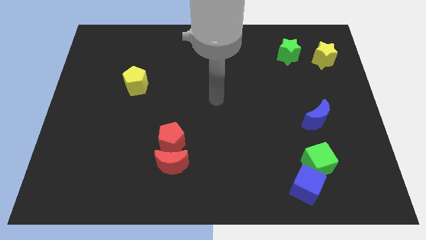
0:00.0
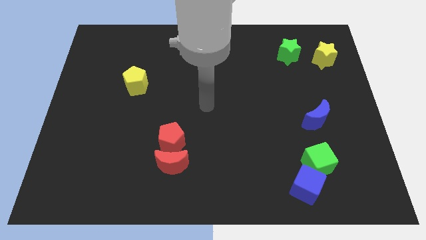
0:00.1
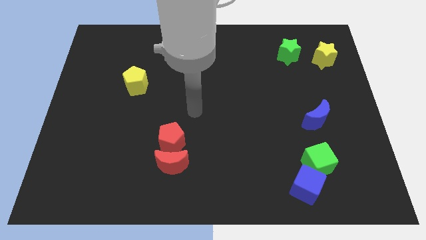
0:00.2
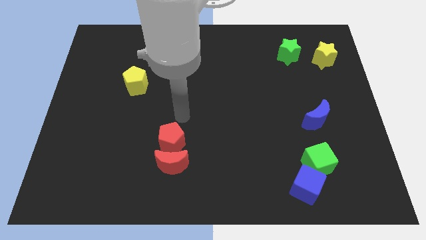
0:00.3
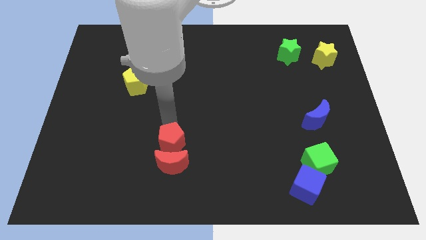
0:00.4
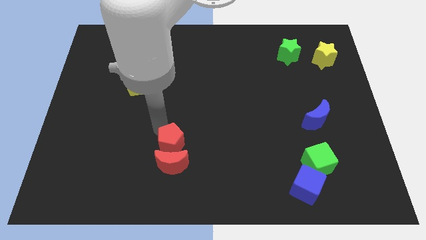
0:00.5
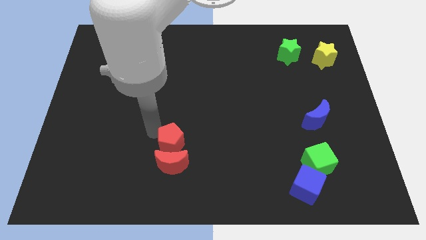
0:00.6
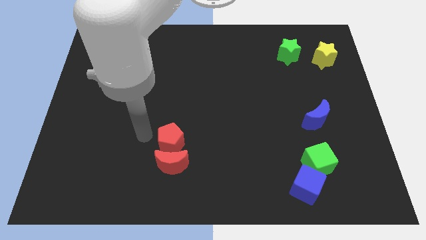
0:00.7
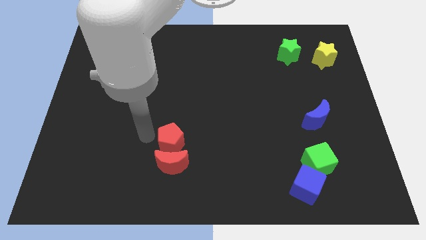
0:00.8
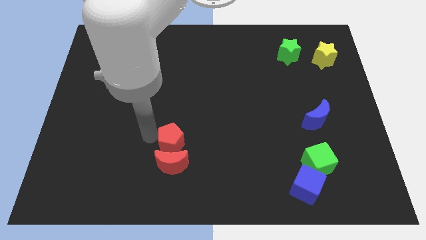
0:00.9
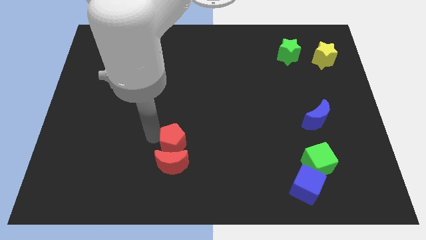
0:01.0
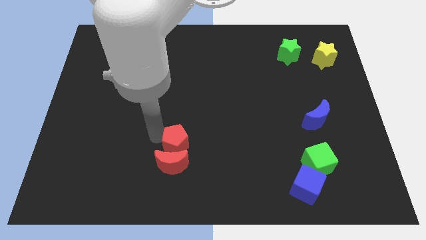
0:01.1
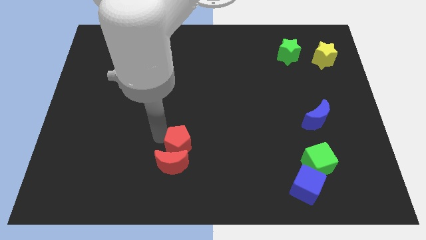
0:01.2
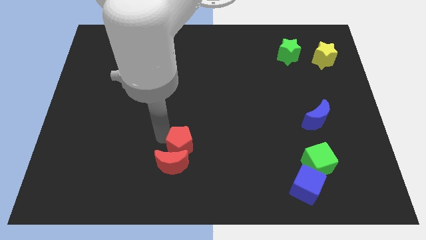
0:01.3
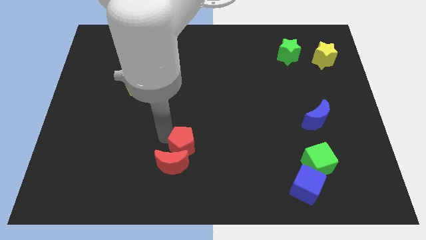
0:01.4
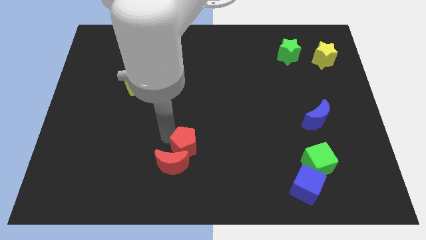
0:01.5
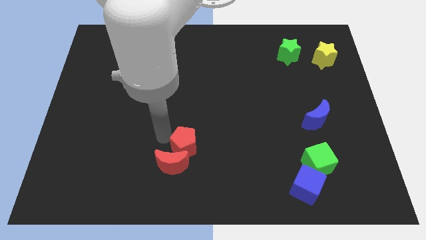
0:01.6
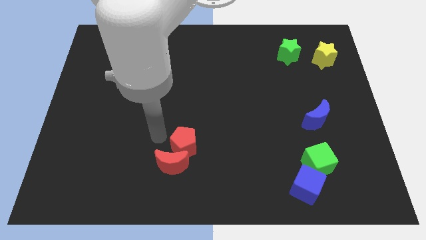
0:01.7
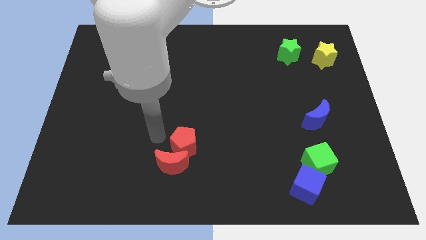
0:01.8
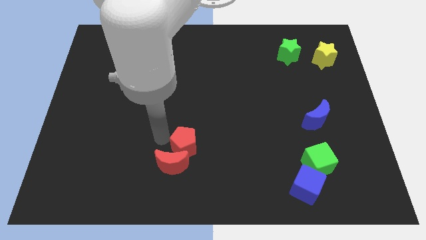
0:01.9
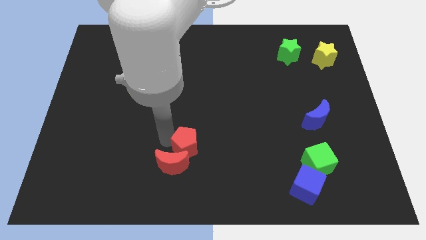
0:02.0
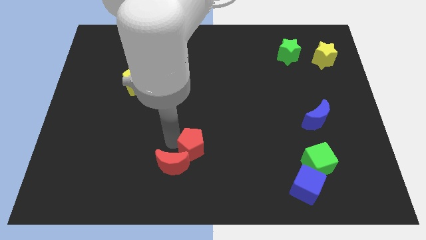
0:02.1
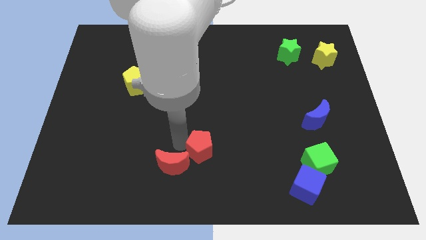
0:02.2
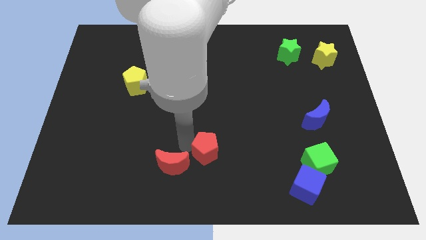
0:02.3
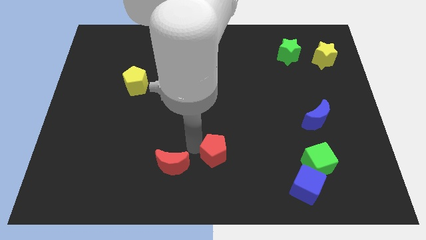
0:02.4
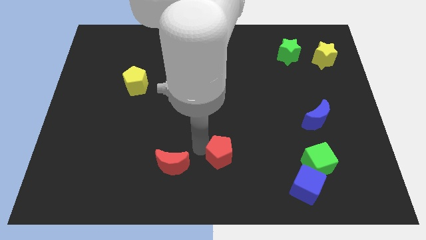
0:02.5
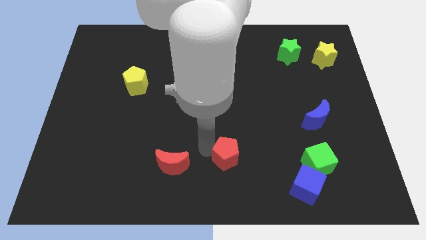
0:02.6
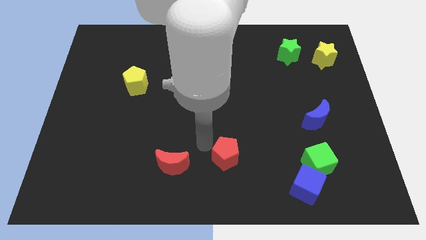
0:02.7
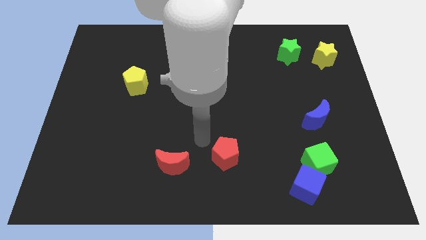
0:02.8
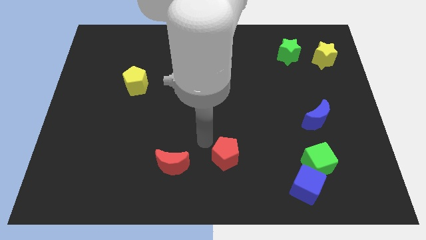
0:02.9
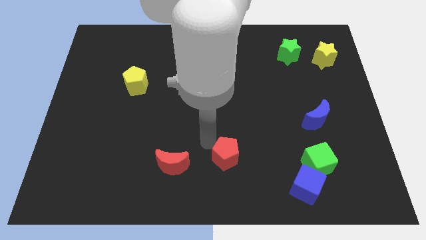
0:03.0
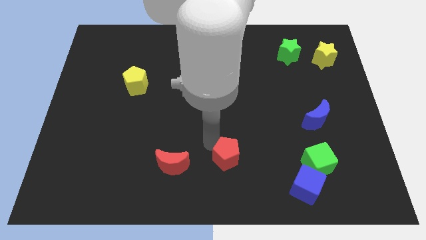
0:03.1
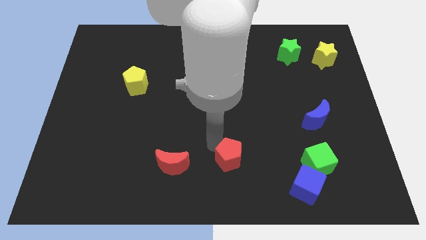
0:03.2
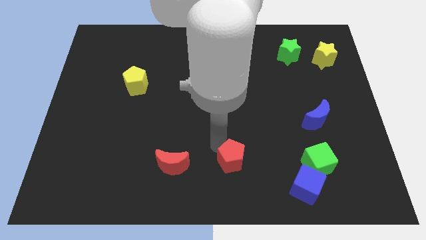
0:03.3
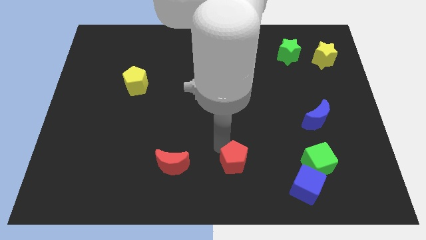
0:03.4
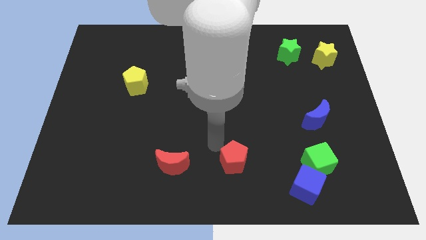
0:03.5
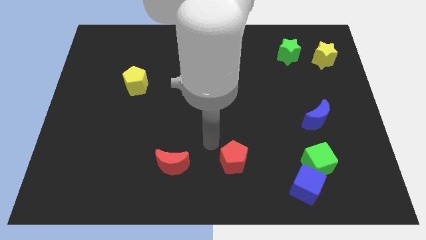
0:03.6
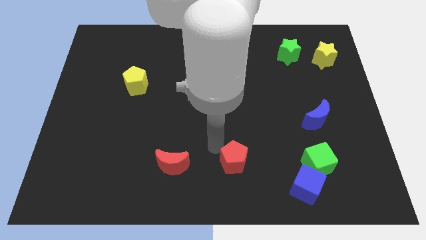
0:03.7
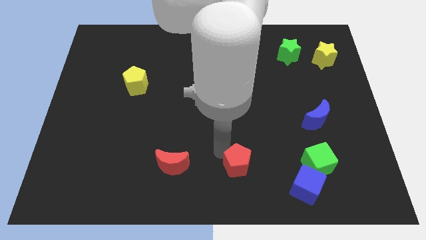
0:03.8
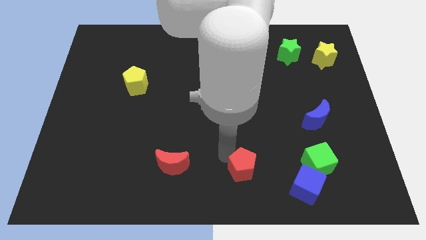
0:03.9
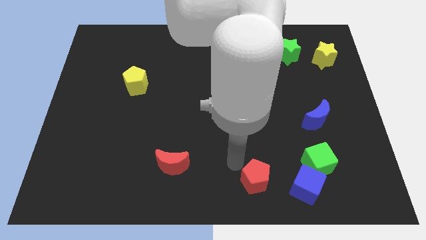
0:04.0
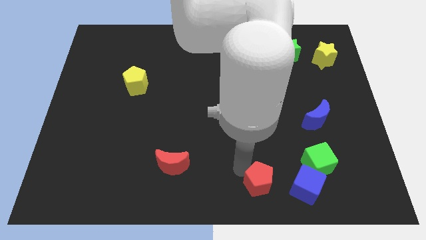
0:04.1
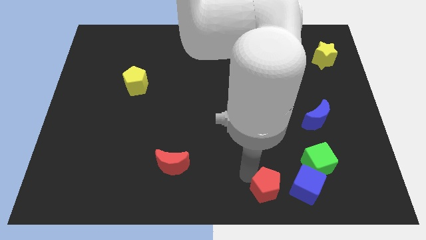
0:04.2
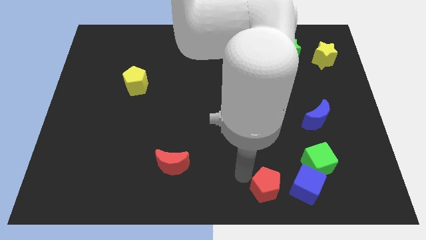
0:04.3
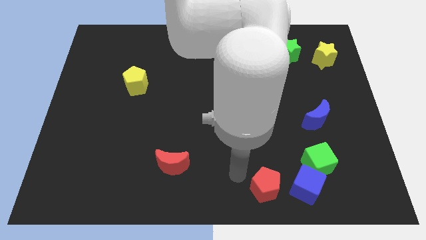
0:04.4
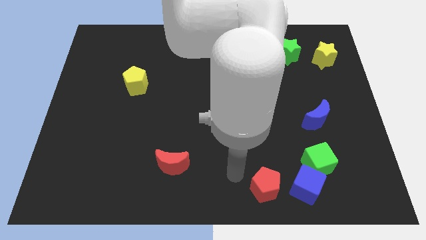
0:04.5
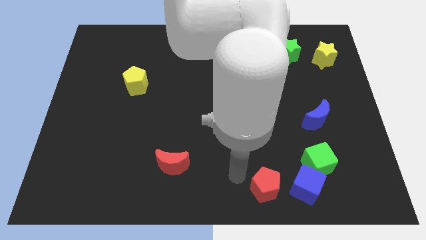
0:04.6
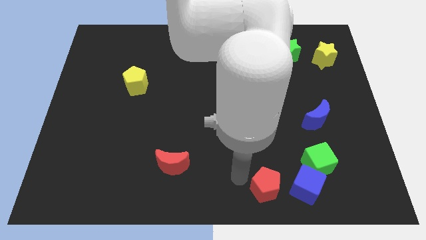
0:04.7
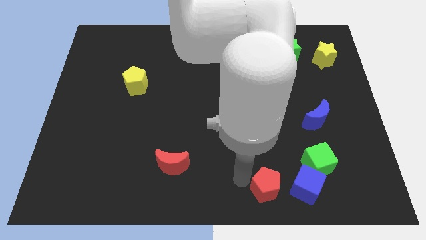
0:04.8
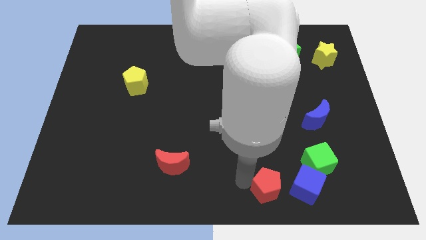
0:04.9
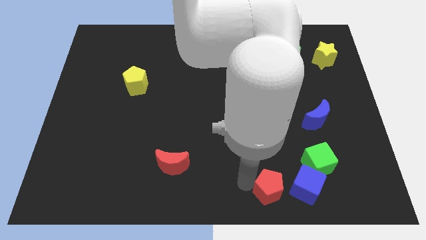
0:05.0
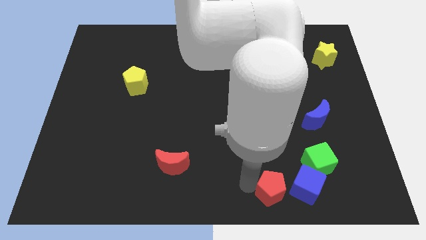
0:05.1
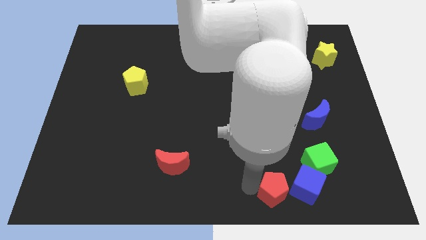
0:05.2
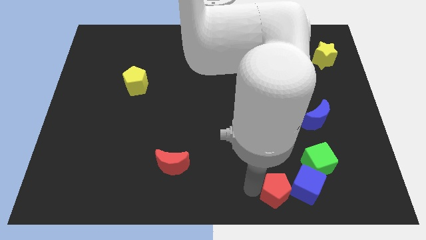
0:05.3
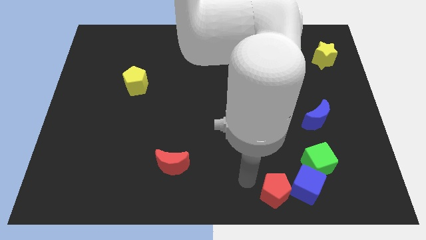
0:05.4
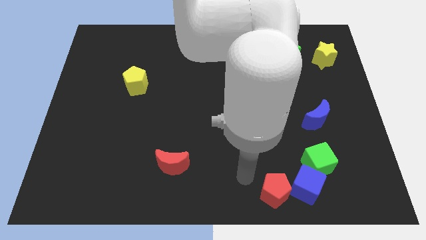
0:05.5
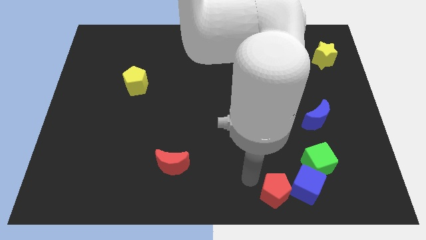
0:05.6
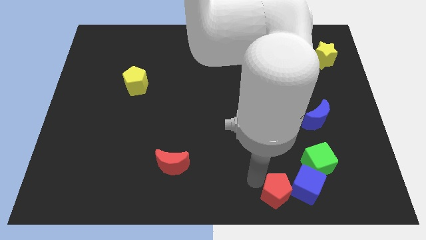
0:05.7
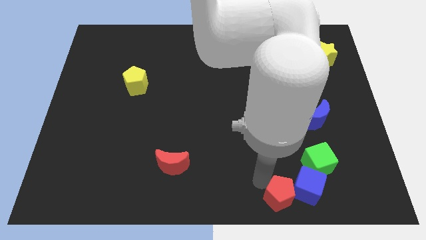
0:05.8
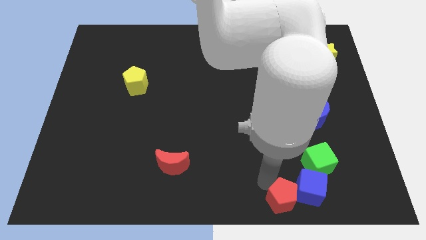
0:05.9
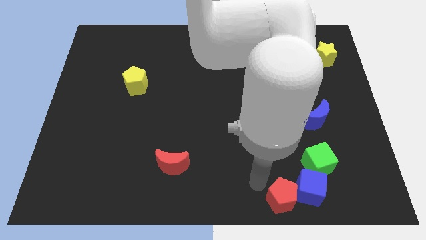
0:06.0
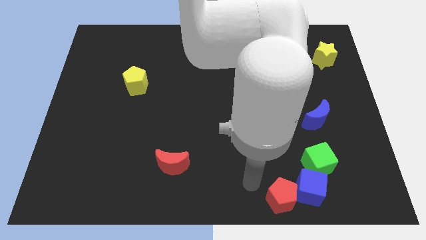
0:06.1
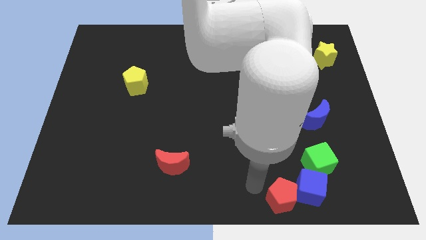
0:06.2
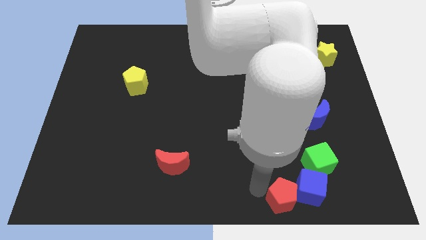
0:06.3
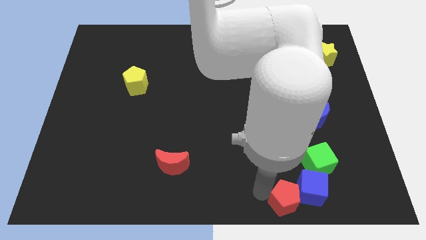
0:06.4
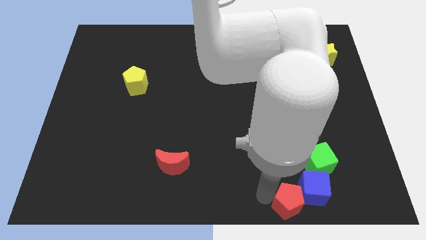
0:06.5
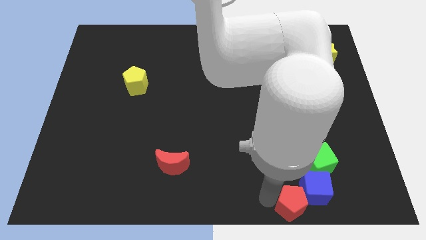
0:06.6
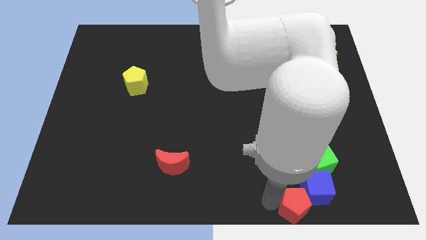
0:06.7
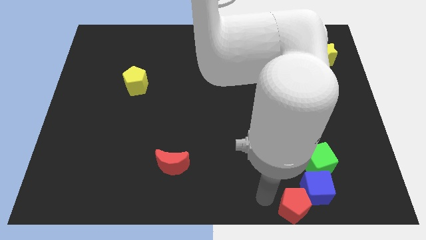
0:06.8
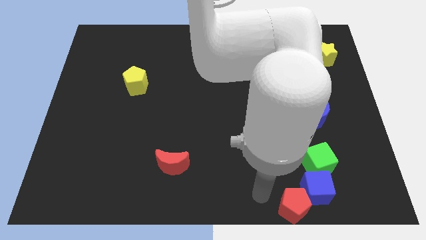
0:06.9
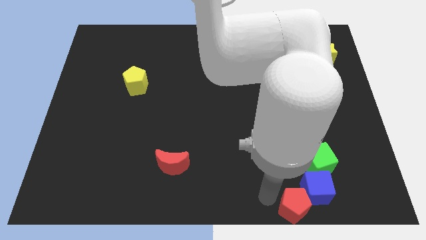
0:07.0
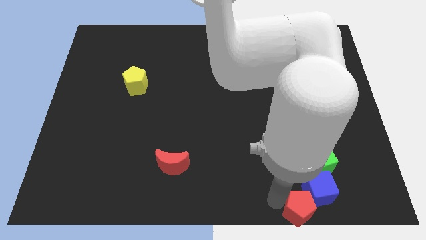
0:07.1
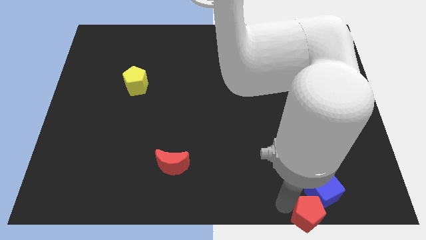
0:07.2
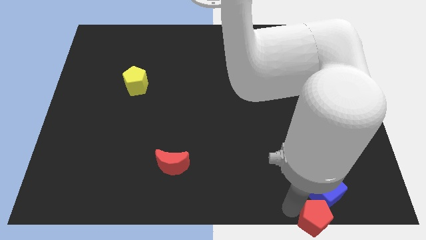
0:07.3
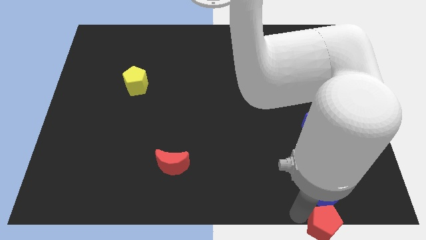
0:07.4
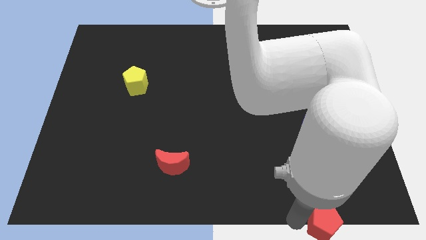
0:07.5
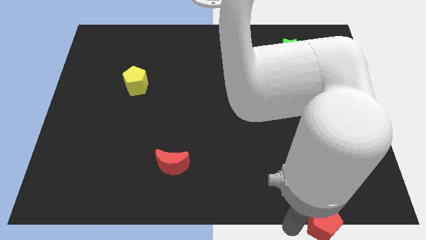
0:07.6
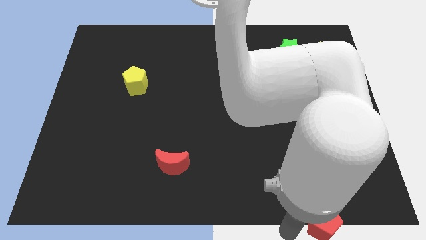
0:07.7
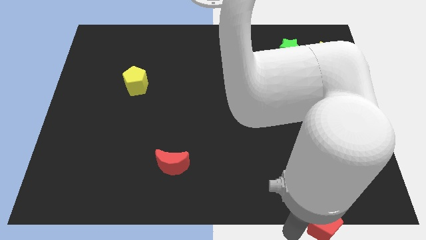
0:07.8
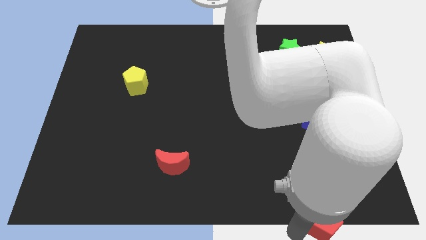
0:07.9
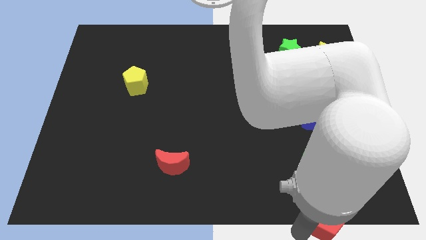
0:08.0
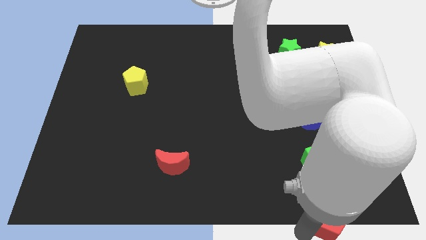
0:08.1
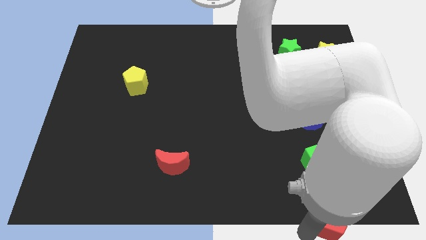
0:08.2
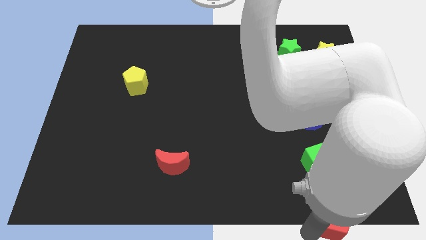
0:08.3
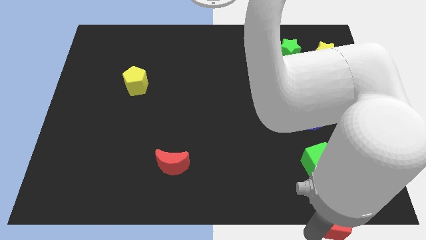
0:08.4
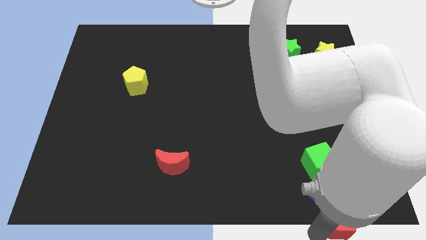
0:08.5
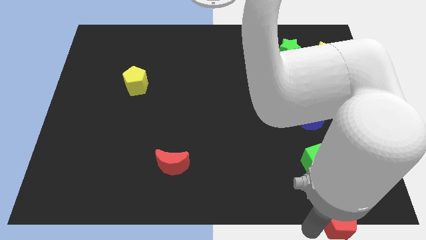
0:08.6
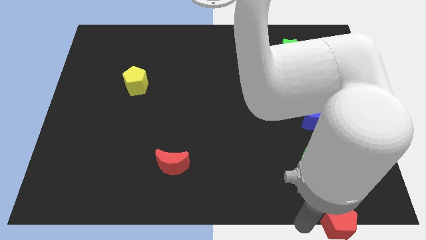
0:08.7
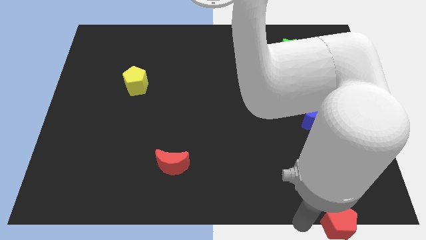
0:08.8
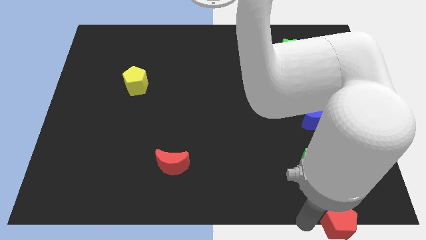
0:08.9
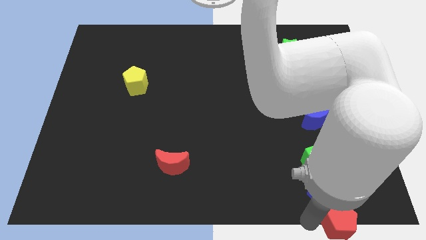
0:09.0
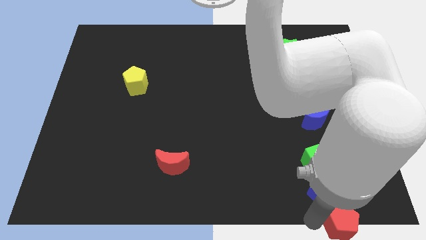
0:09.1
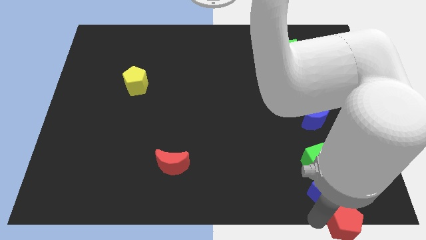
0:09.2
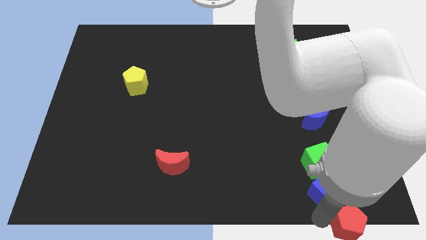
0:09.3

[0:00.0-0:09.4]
slide the red pentagon to the bottom right
